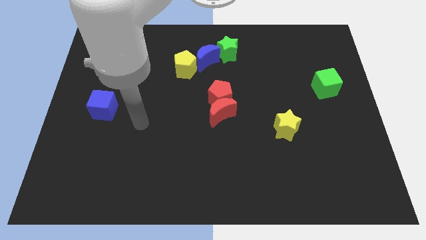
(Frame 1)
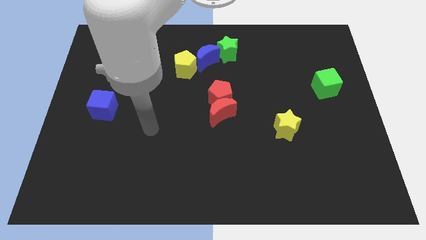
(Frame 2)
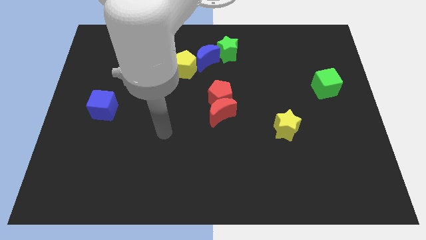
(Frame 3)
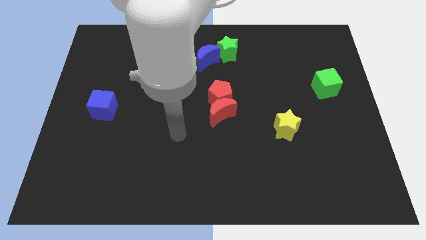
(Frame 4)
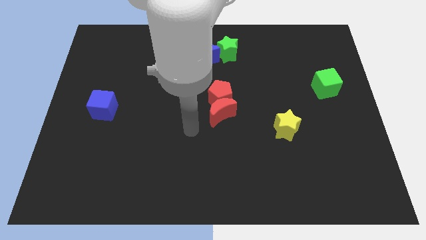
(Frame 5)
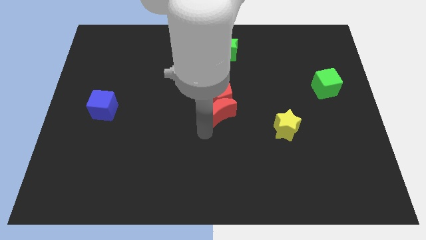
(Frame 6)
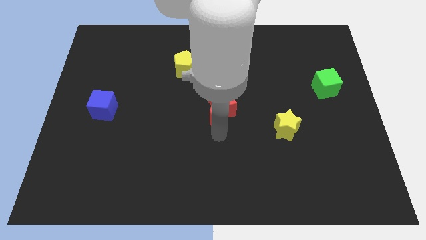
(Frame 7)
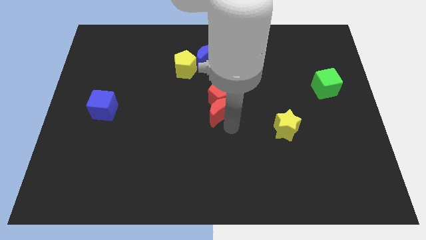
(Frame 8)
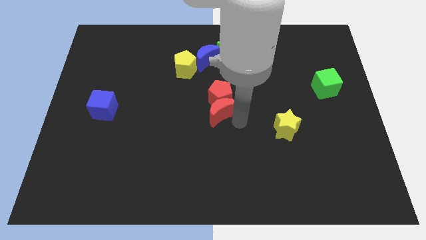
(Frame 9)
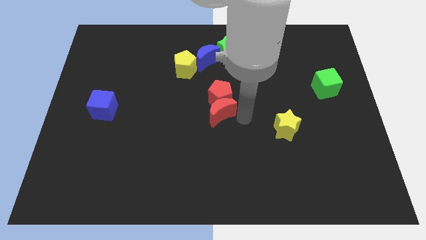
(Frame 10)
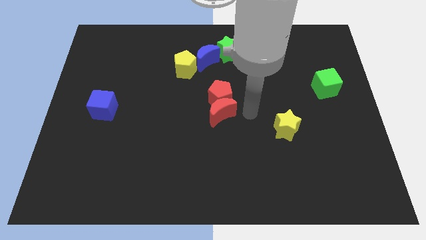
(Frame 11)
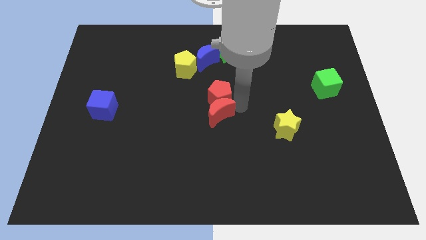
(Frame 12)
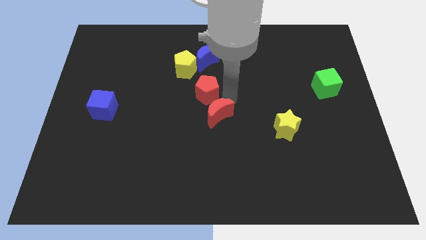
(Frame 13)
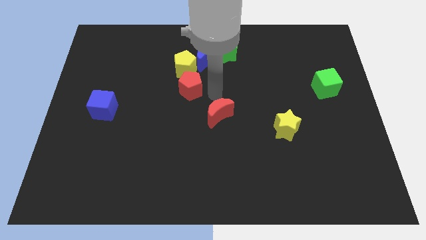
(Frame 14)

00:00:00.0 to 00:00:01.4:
move the red moon away from the red pentagon

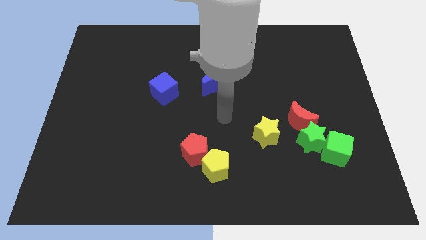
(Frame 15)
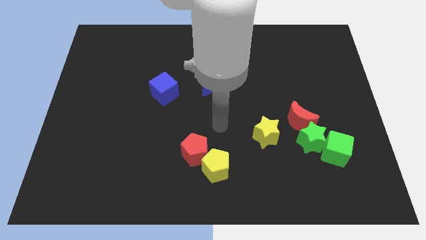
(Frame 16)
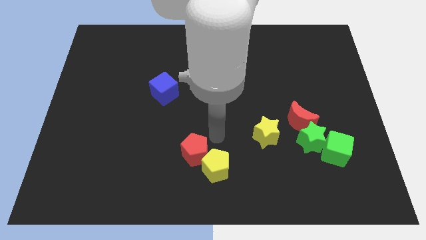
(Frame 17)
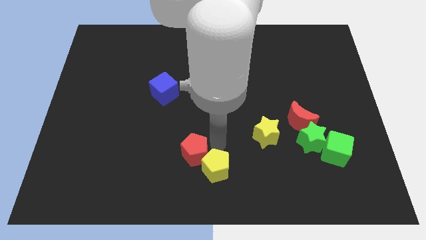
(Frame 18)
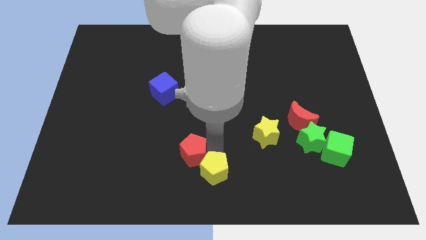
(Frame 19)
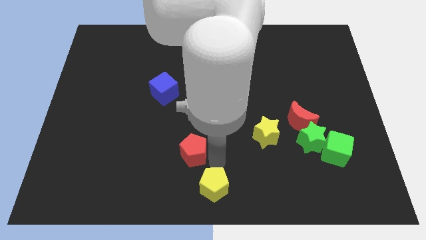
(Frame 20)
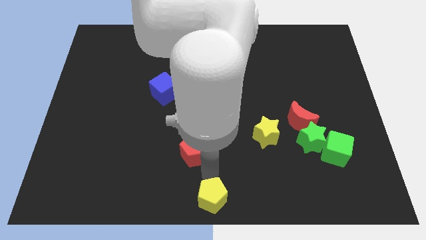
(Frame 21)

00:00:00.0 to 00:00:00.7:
move the red pentagon away from the yellow pentagon

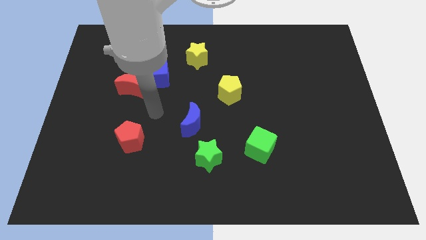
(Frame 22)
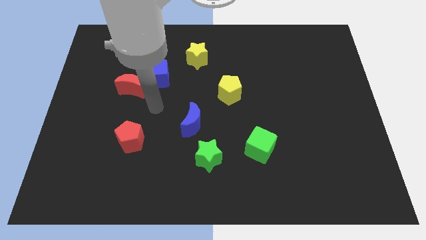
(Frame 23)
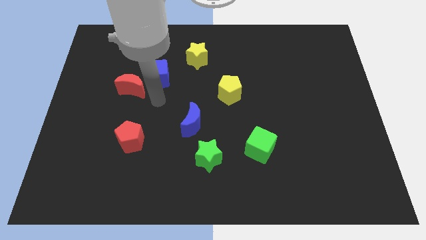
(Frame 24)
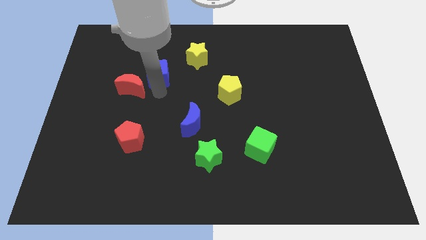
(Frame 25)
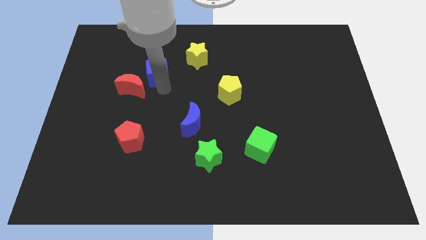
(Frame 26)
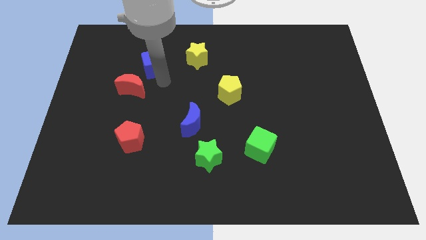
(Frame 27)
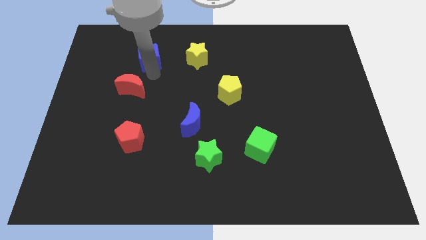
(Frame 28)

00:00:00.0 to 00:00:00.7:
separate the red moon from the blue cube

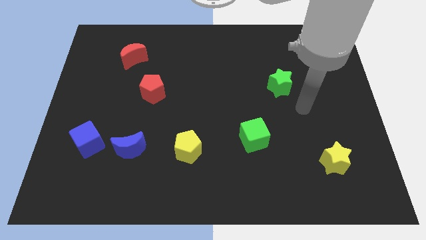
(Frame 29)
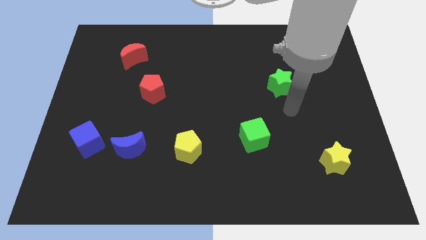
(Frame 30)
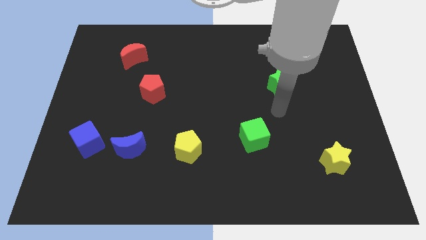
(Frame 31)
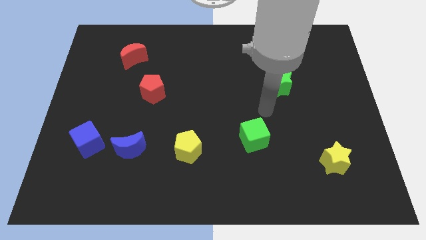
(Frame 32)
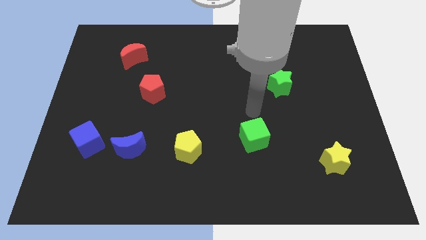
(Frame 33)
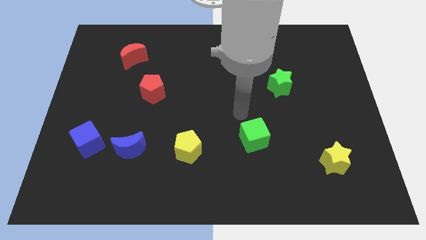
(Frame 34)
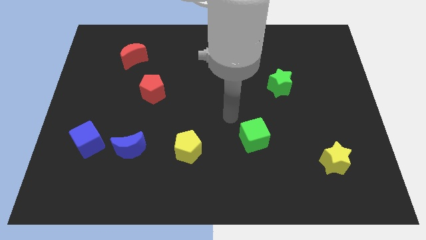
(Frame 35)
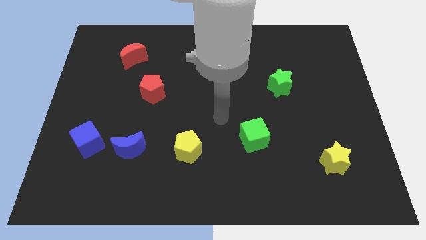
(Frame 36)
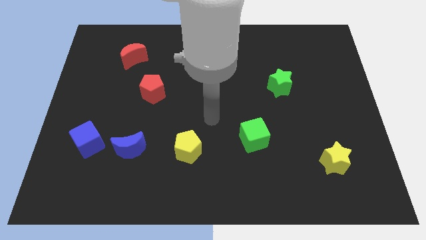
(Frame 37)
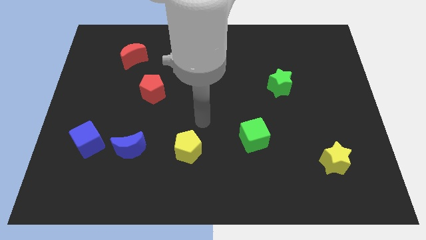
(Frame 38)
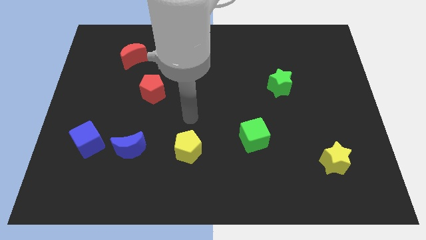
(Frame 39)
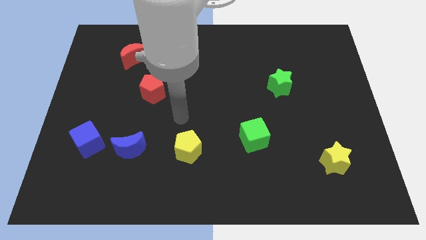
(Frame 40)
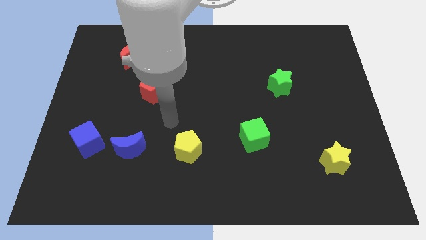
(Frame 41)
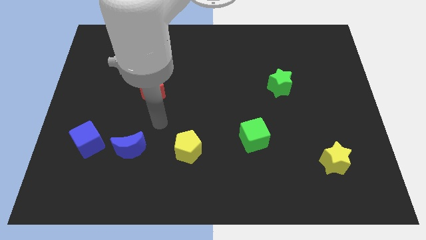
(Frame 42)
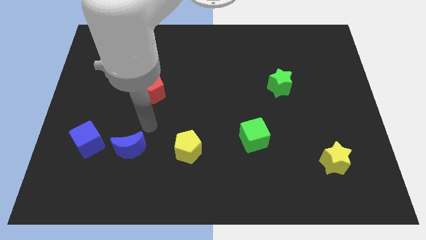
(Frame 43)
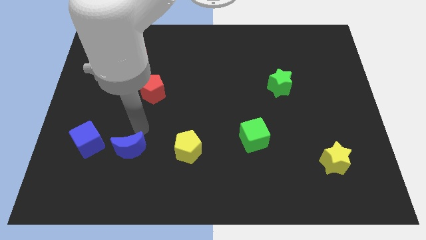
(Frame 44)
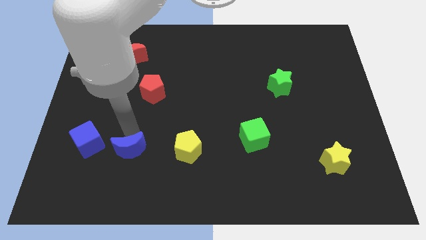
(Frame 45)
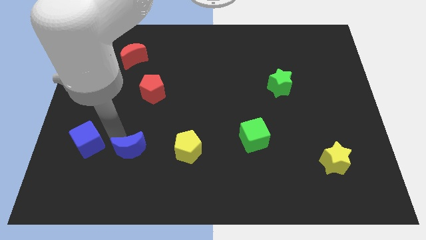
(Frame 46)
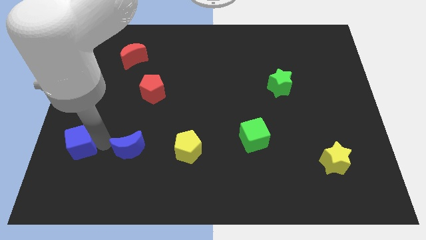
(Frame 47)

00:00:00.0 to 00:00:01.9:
separate the blue moon from the blue cube

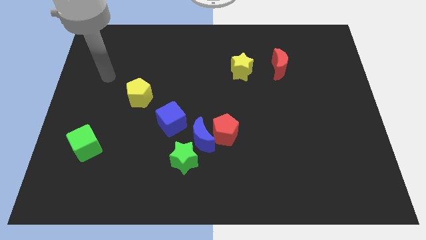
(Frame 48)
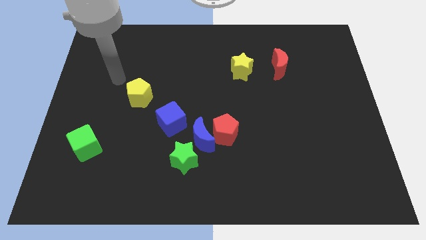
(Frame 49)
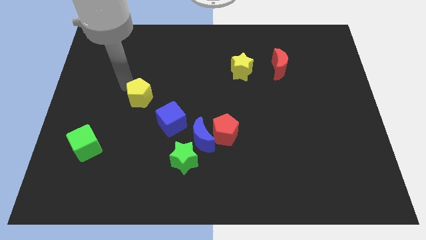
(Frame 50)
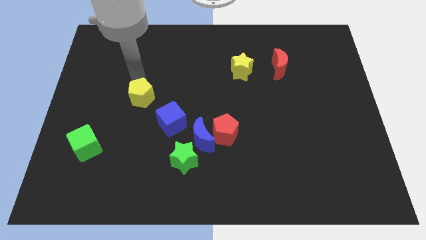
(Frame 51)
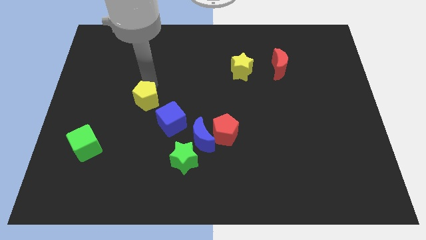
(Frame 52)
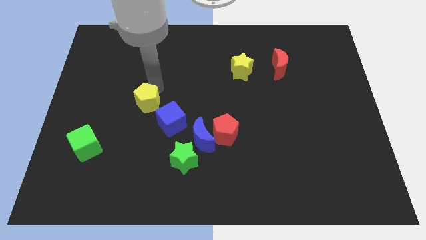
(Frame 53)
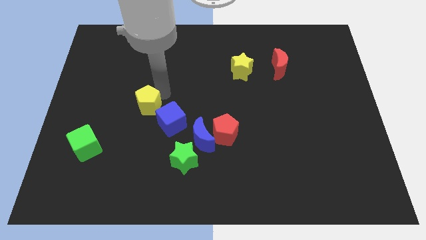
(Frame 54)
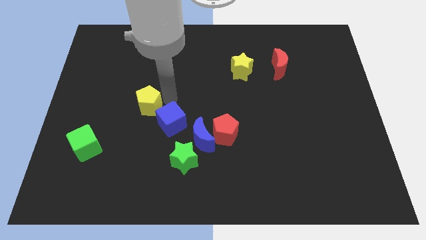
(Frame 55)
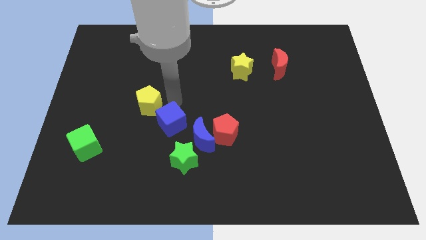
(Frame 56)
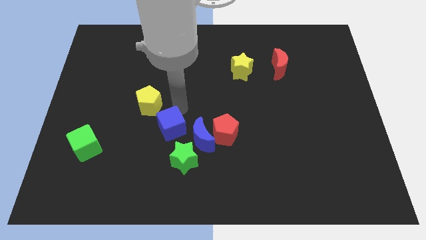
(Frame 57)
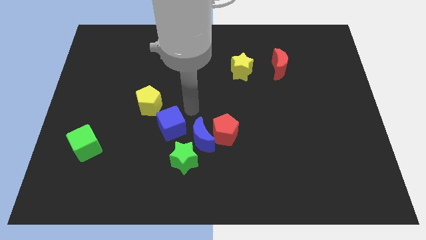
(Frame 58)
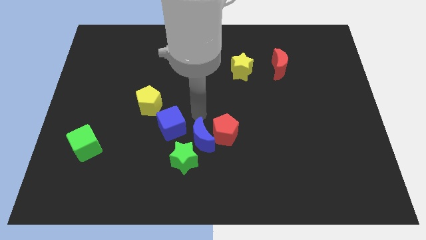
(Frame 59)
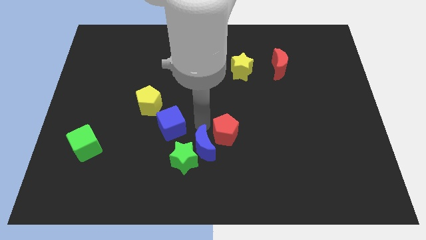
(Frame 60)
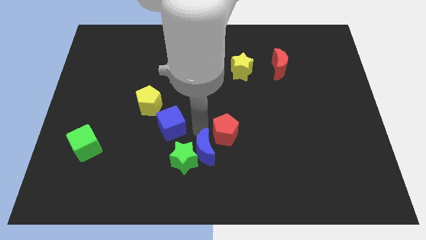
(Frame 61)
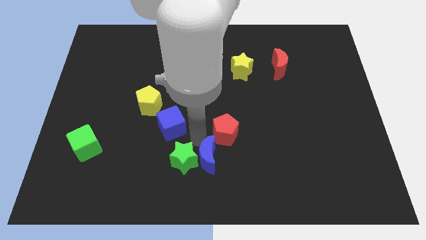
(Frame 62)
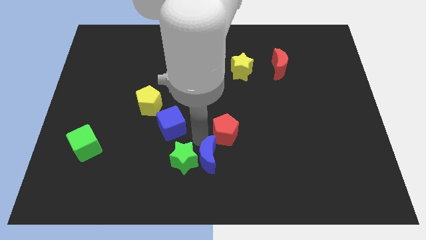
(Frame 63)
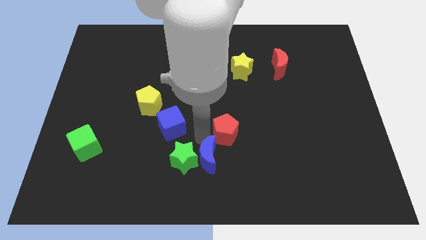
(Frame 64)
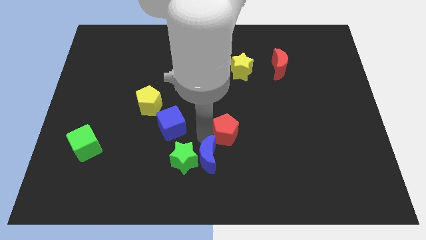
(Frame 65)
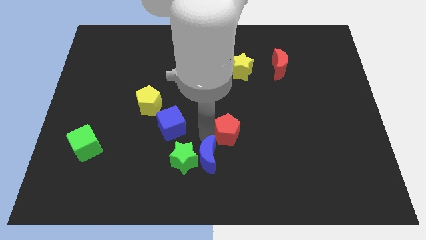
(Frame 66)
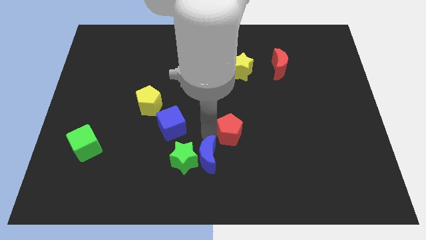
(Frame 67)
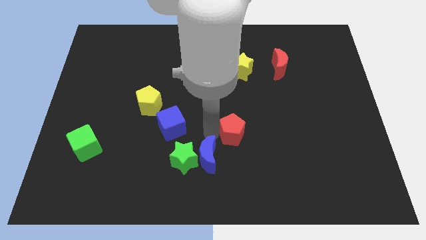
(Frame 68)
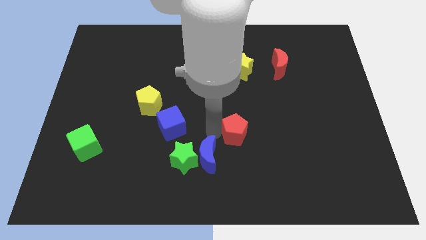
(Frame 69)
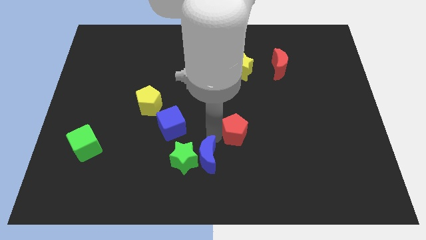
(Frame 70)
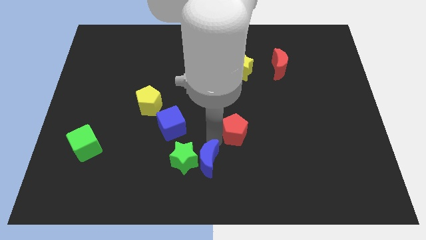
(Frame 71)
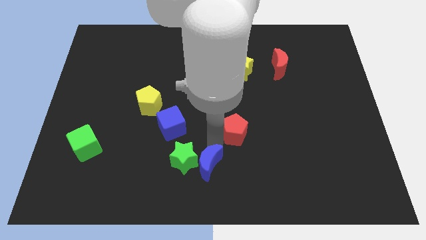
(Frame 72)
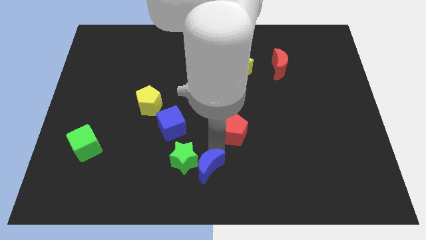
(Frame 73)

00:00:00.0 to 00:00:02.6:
separate the red pentagon from the blue moon

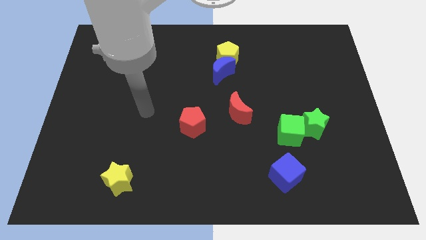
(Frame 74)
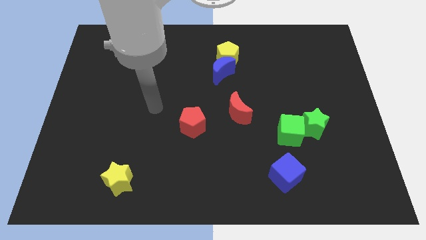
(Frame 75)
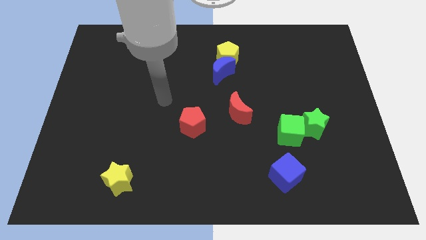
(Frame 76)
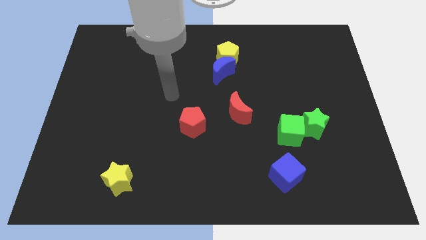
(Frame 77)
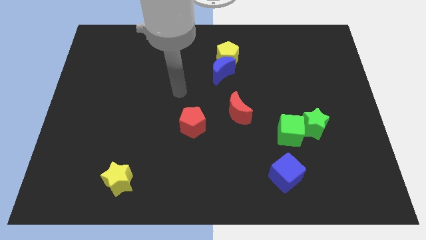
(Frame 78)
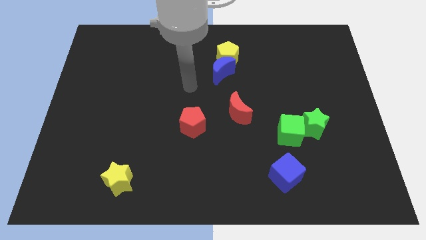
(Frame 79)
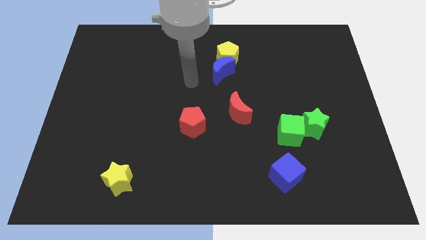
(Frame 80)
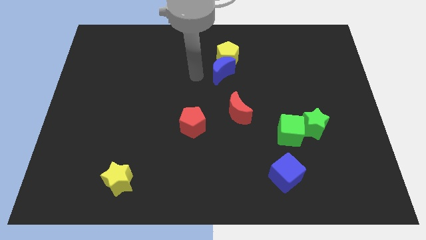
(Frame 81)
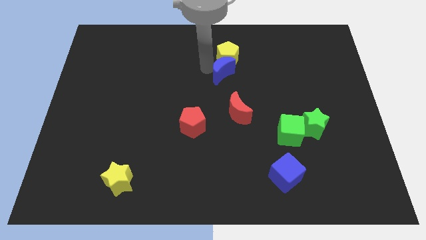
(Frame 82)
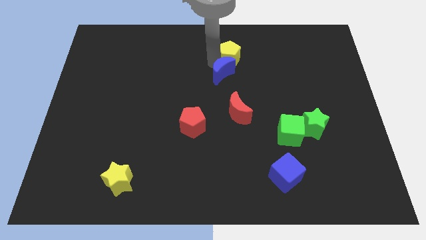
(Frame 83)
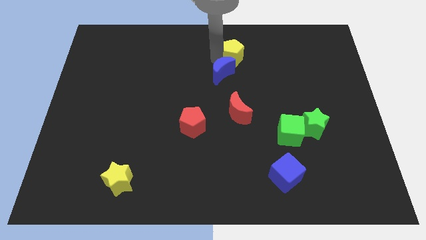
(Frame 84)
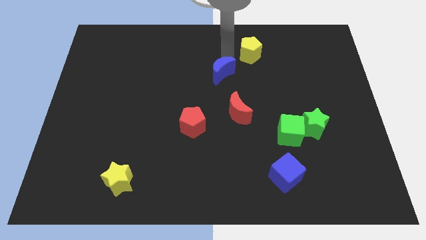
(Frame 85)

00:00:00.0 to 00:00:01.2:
move the blue moon away from the yellow pentagon

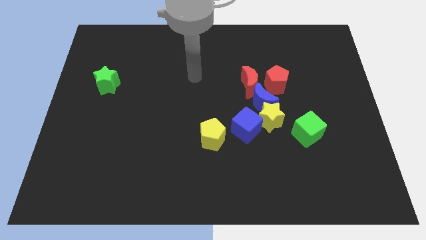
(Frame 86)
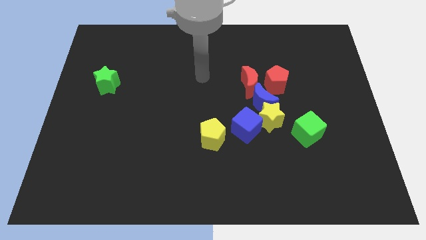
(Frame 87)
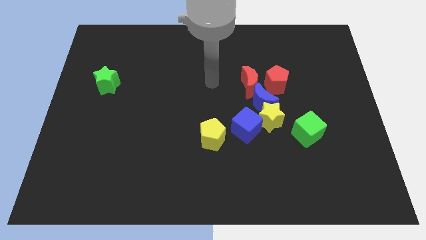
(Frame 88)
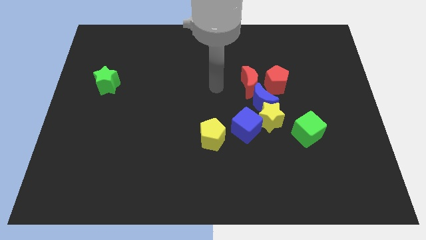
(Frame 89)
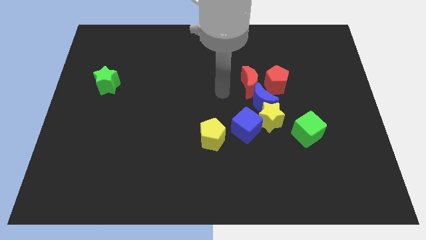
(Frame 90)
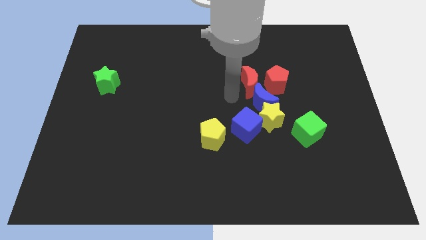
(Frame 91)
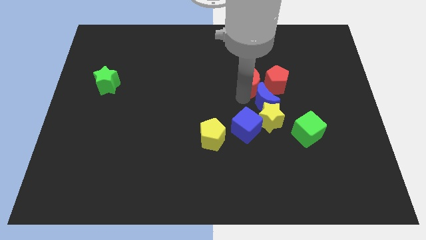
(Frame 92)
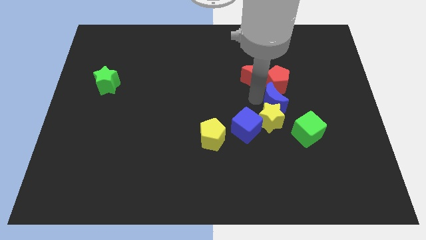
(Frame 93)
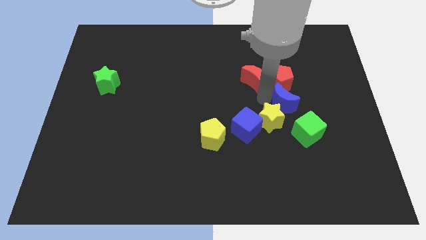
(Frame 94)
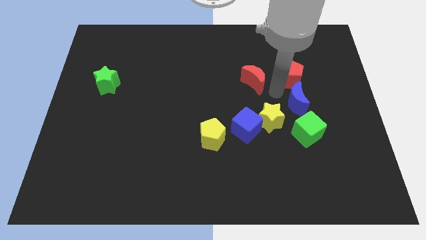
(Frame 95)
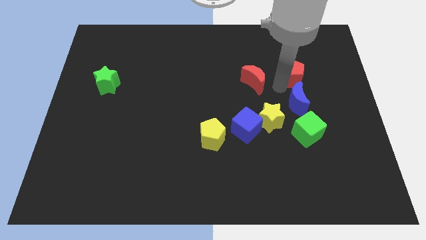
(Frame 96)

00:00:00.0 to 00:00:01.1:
separate the red moon from the blue moon and red pentagon
